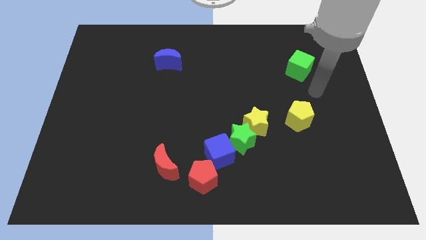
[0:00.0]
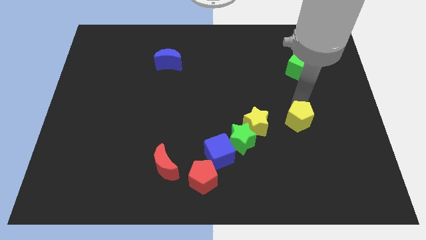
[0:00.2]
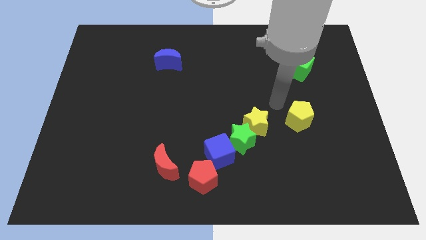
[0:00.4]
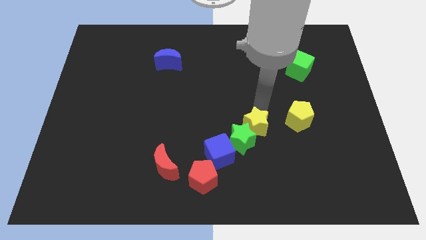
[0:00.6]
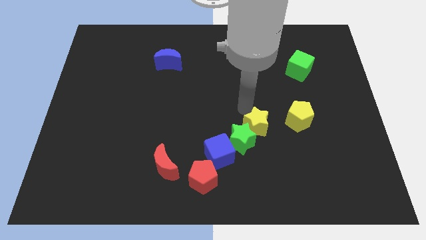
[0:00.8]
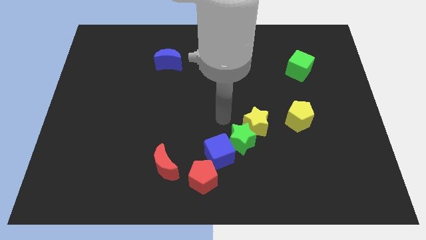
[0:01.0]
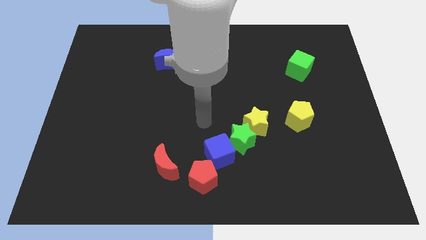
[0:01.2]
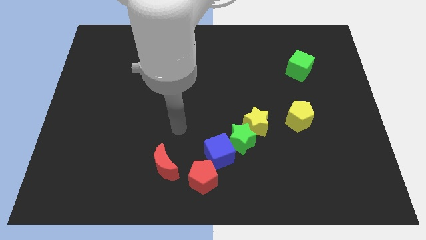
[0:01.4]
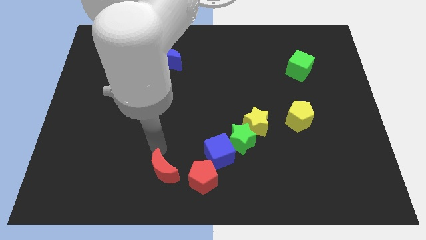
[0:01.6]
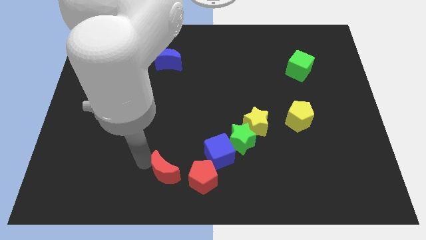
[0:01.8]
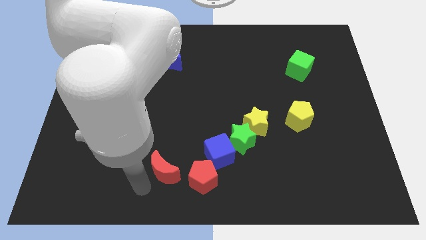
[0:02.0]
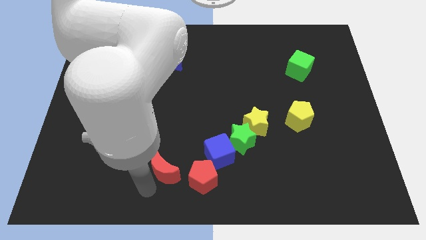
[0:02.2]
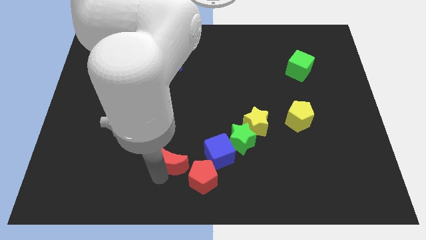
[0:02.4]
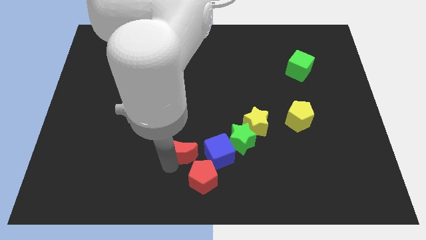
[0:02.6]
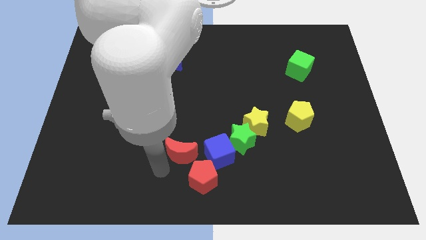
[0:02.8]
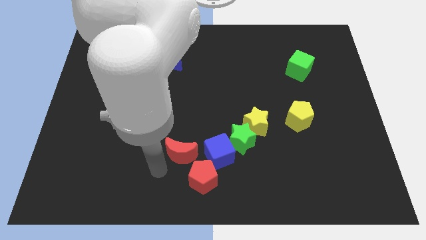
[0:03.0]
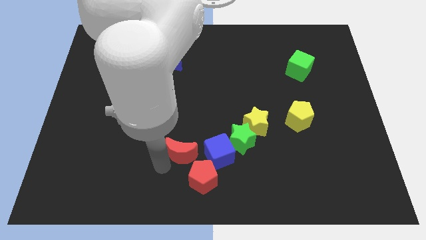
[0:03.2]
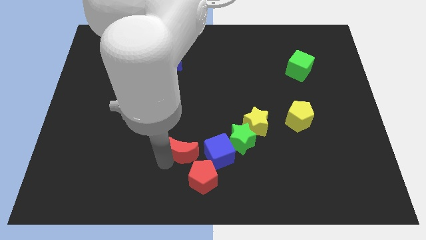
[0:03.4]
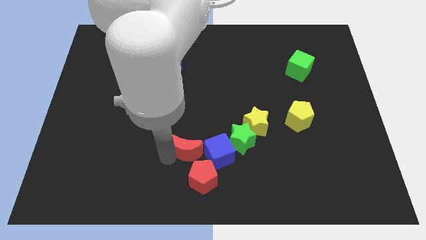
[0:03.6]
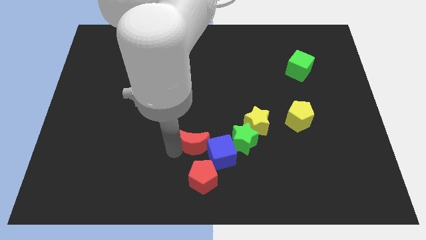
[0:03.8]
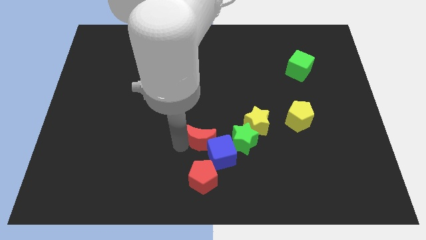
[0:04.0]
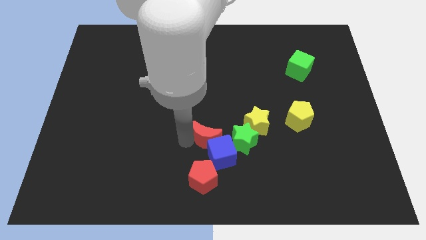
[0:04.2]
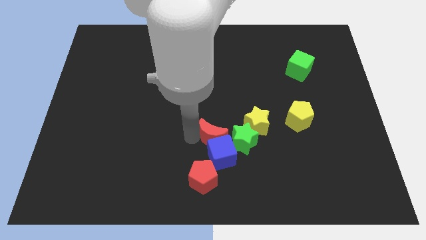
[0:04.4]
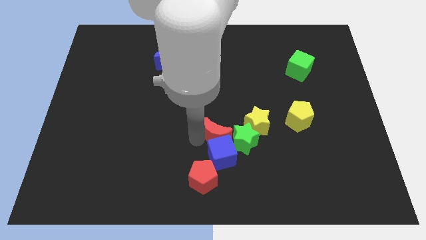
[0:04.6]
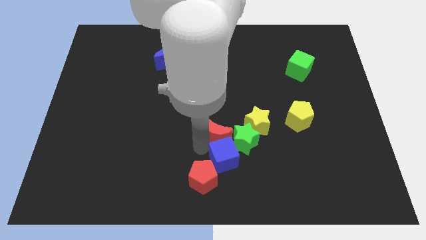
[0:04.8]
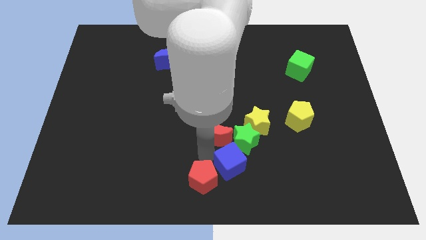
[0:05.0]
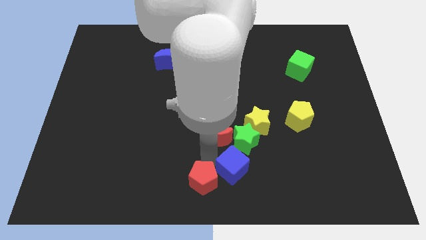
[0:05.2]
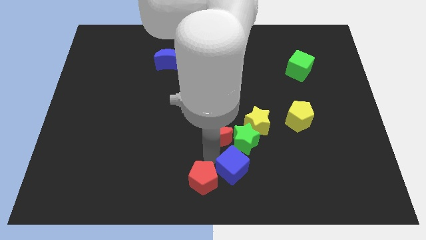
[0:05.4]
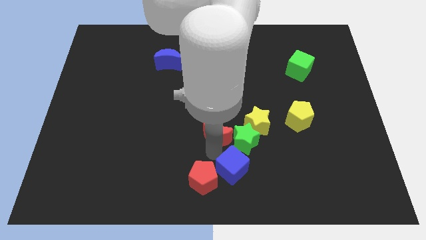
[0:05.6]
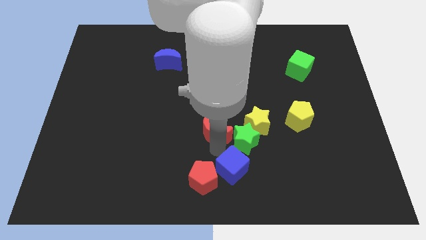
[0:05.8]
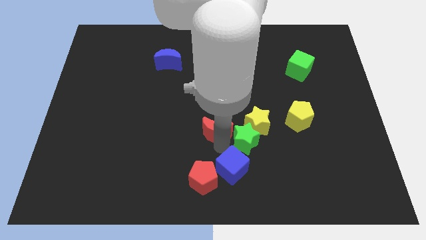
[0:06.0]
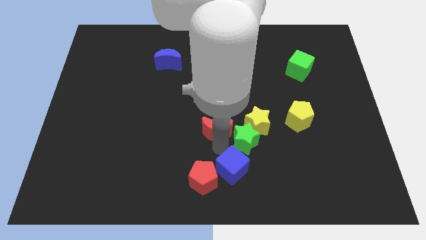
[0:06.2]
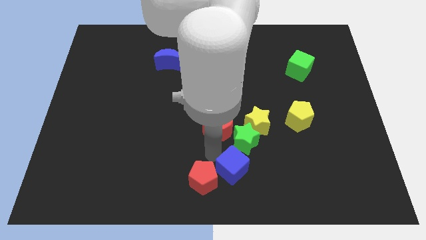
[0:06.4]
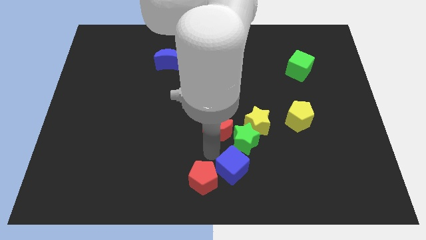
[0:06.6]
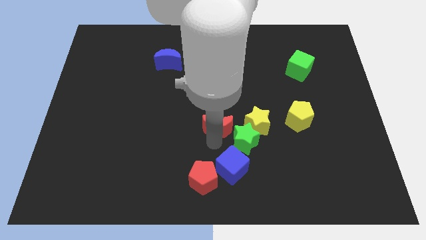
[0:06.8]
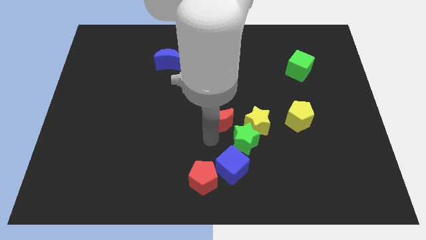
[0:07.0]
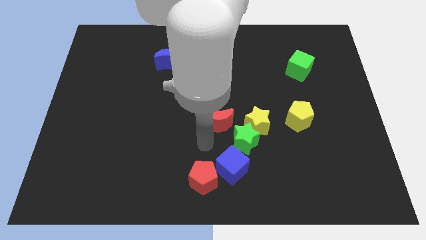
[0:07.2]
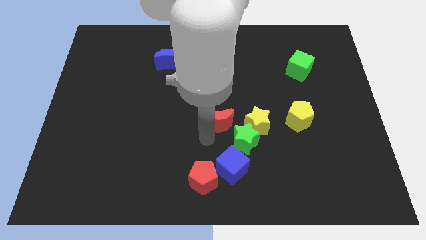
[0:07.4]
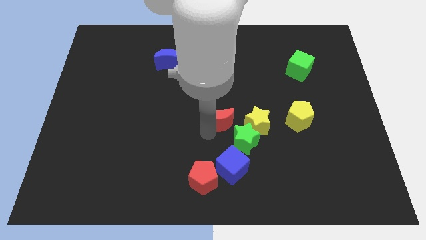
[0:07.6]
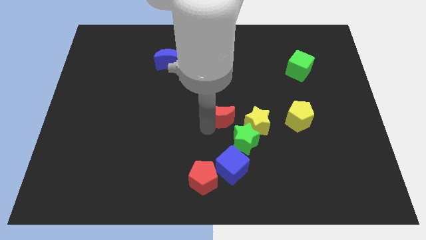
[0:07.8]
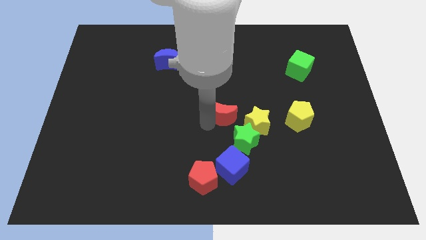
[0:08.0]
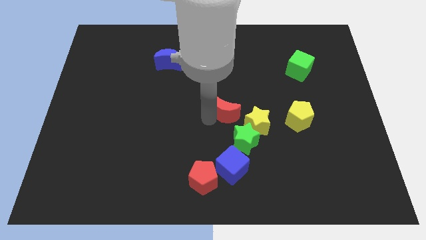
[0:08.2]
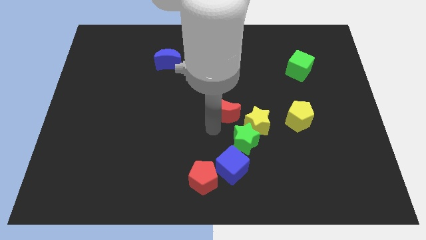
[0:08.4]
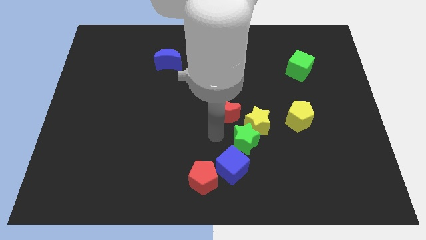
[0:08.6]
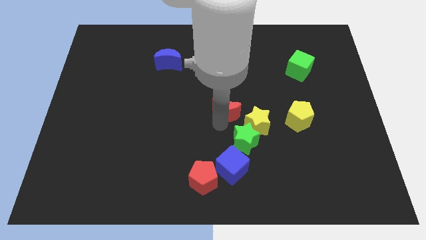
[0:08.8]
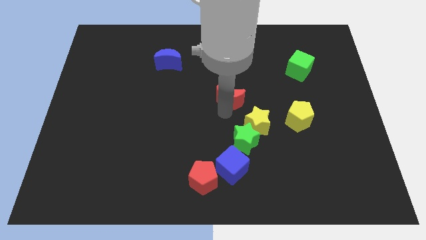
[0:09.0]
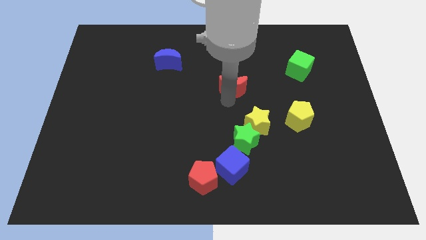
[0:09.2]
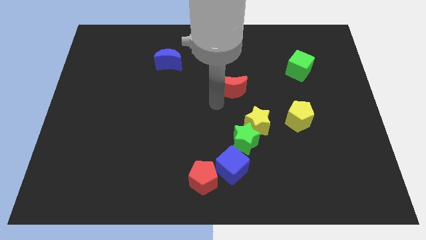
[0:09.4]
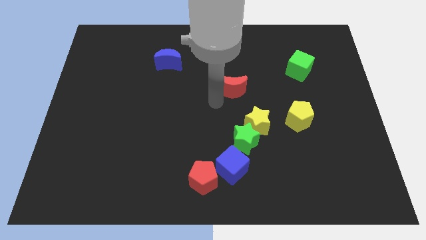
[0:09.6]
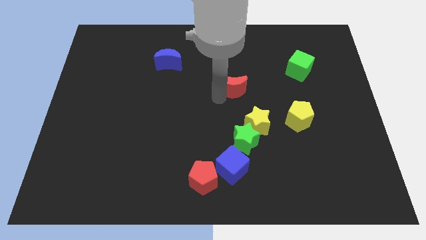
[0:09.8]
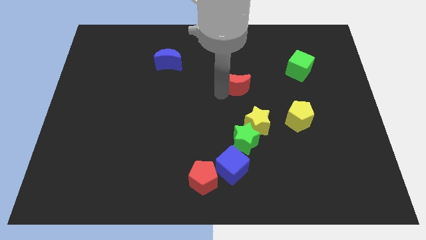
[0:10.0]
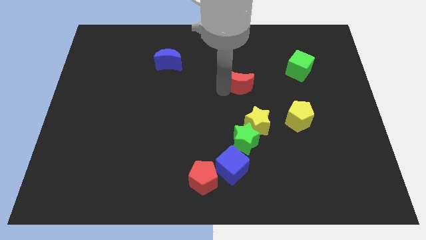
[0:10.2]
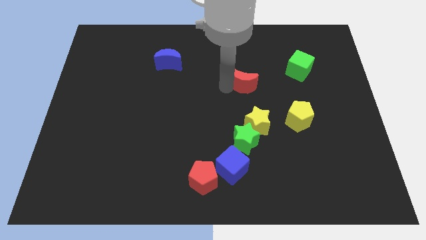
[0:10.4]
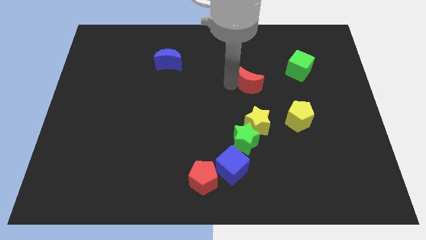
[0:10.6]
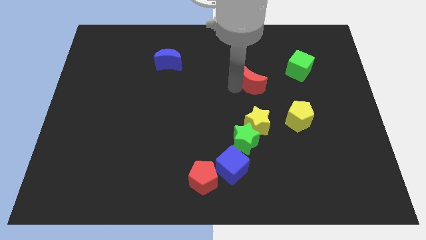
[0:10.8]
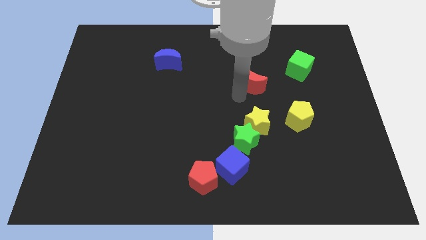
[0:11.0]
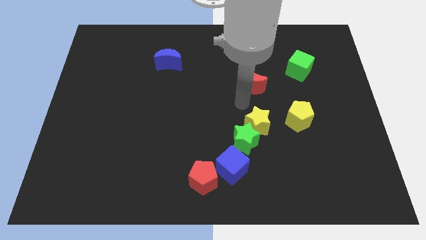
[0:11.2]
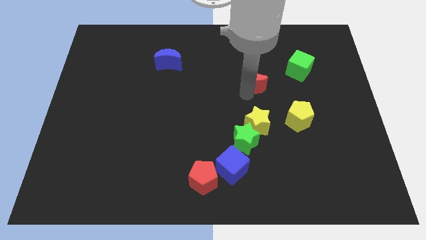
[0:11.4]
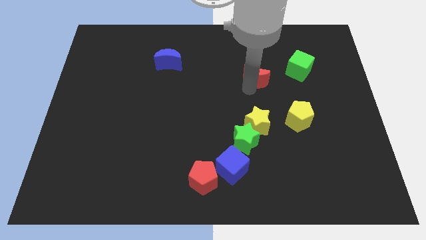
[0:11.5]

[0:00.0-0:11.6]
move the red moon just left of the green cube

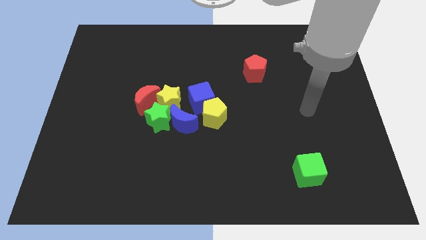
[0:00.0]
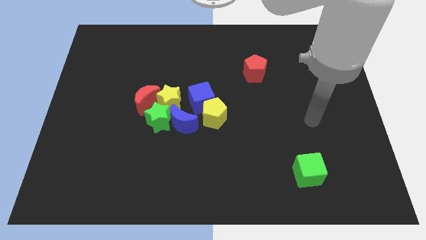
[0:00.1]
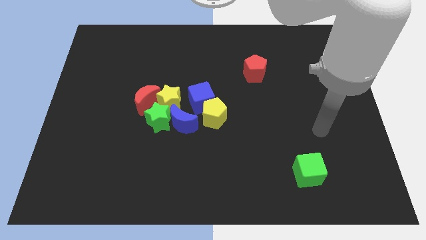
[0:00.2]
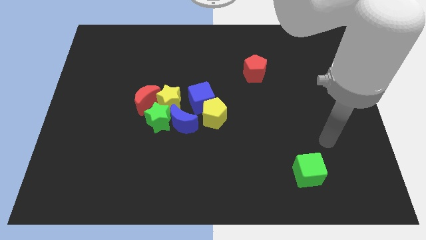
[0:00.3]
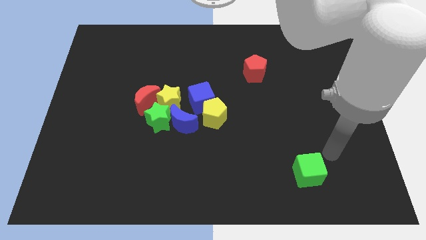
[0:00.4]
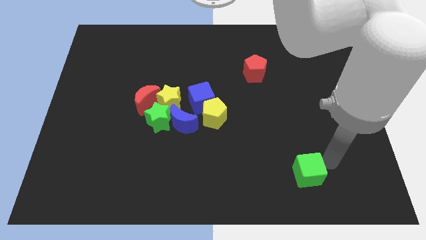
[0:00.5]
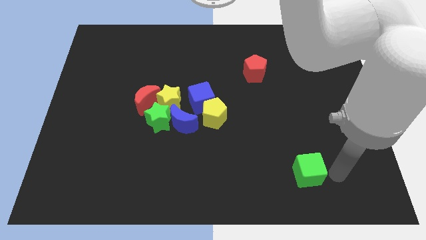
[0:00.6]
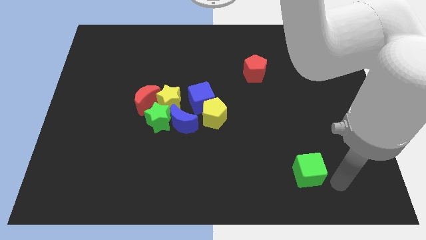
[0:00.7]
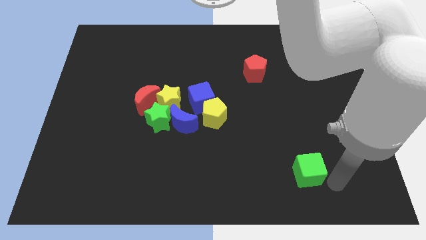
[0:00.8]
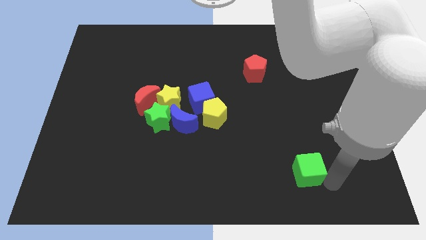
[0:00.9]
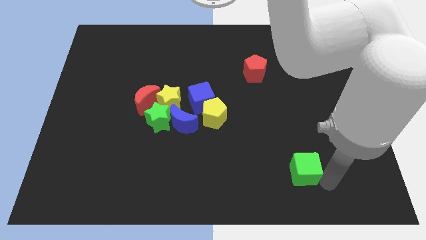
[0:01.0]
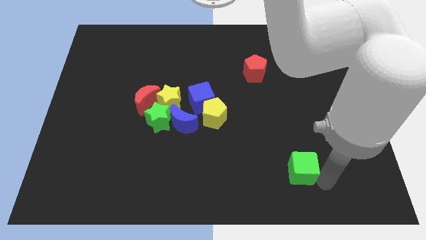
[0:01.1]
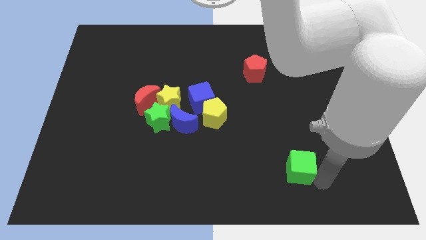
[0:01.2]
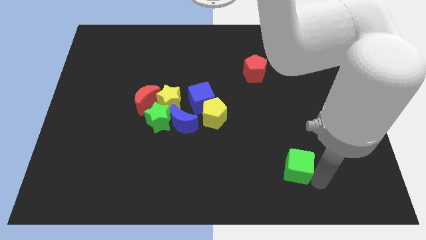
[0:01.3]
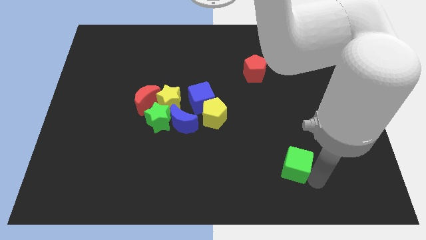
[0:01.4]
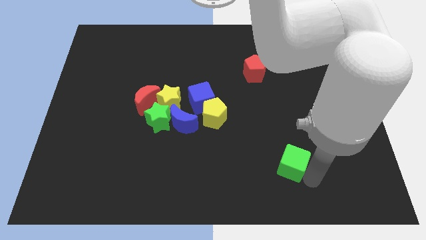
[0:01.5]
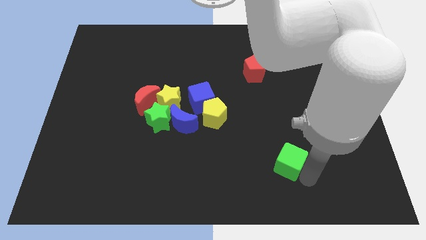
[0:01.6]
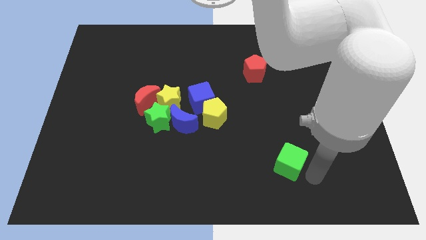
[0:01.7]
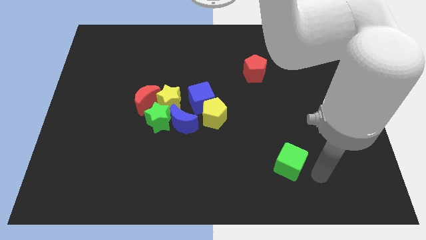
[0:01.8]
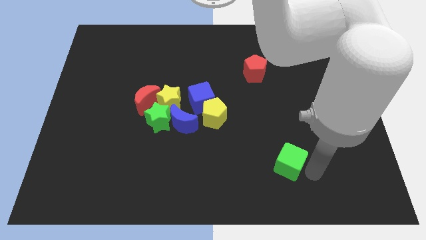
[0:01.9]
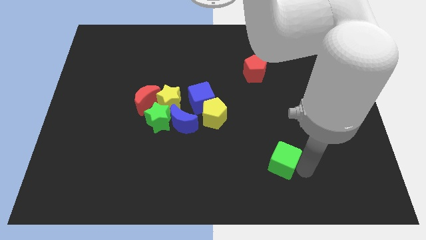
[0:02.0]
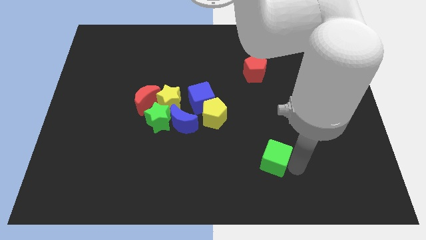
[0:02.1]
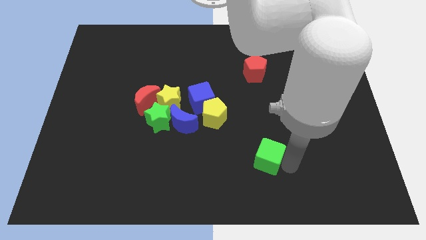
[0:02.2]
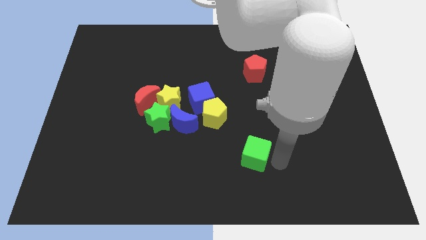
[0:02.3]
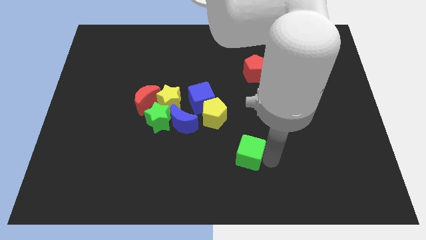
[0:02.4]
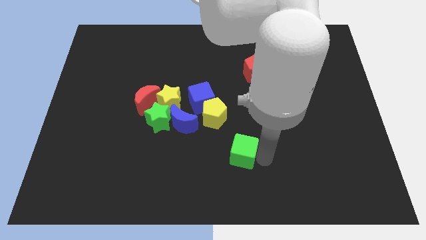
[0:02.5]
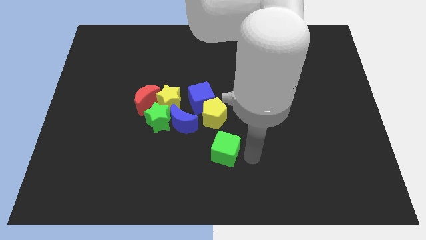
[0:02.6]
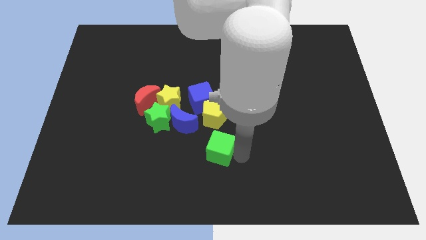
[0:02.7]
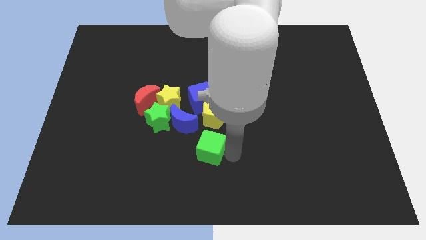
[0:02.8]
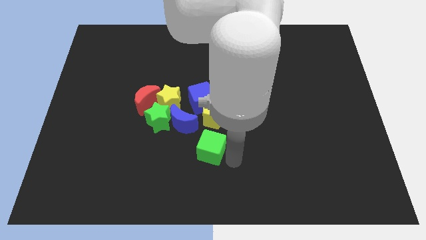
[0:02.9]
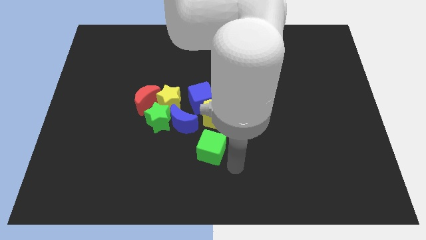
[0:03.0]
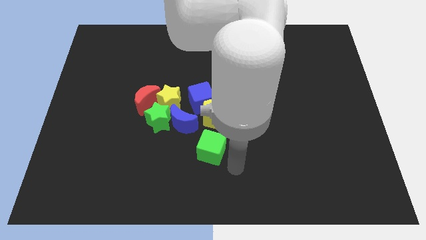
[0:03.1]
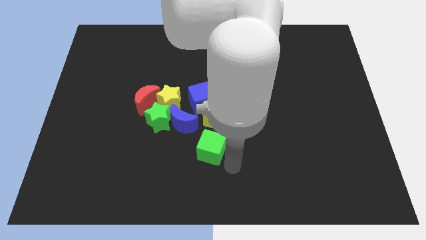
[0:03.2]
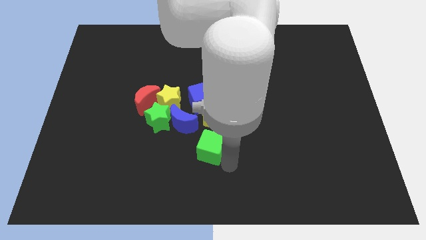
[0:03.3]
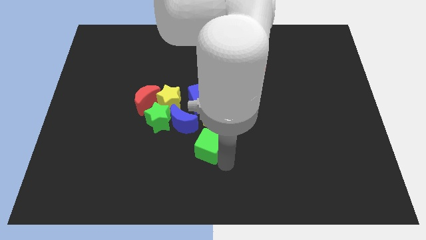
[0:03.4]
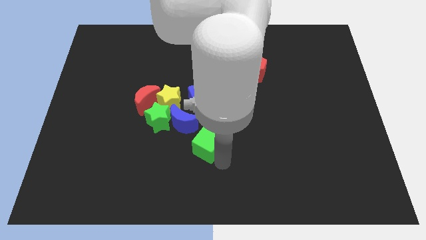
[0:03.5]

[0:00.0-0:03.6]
move the green cube to the bottom left of the yellow pentagon
